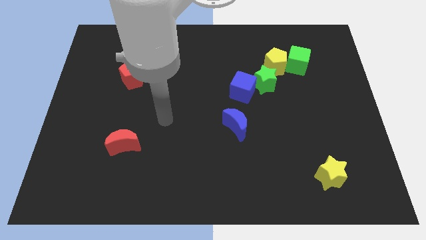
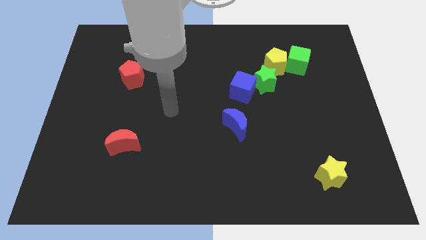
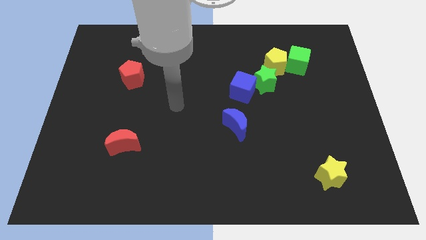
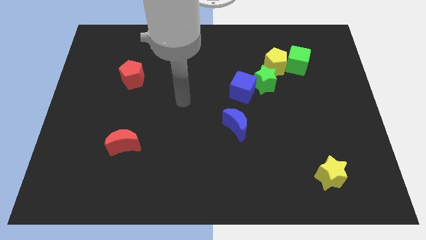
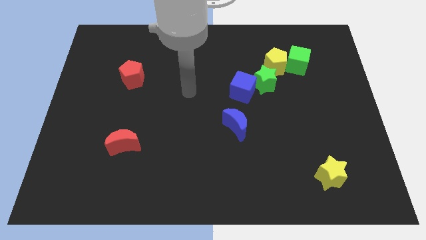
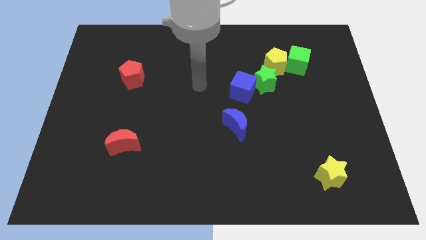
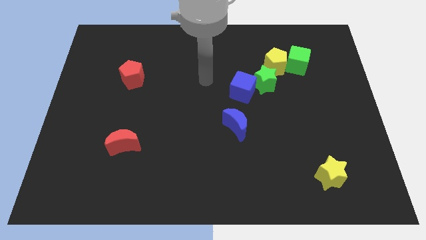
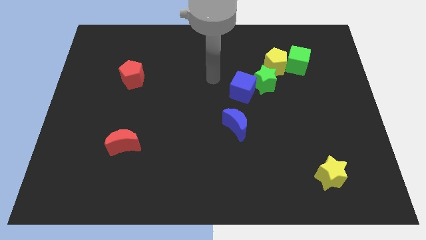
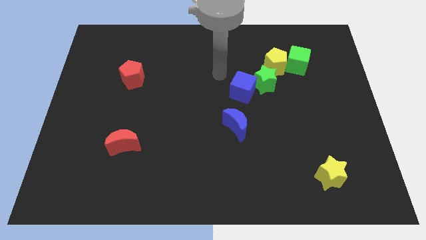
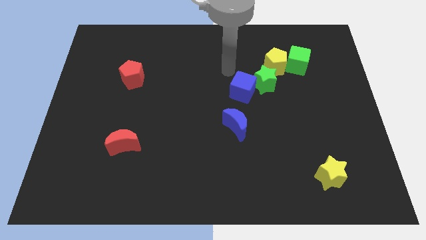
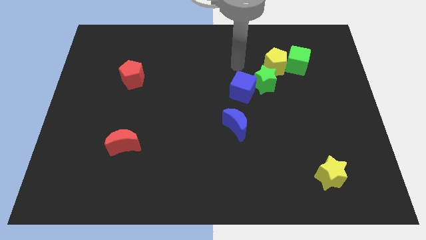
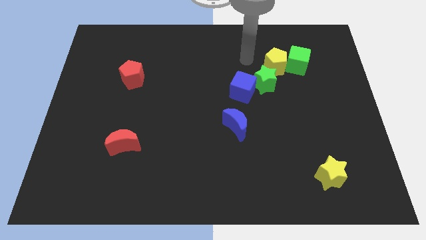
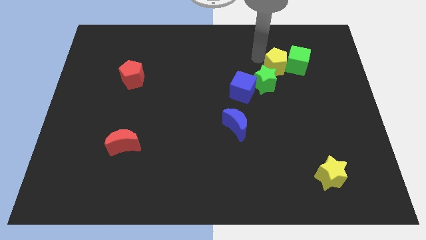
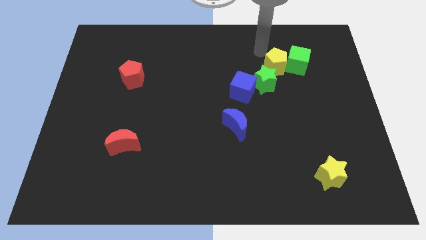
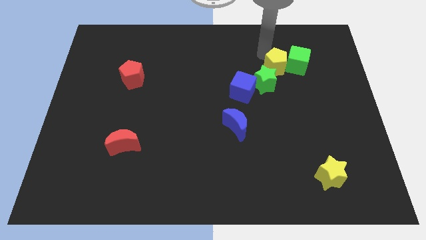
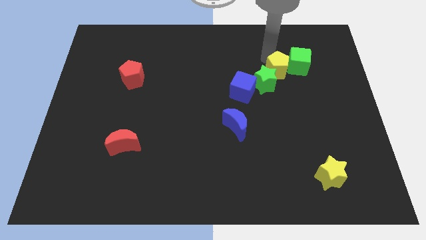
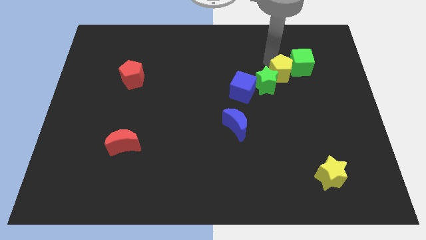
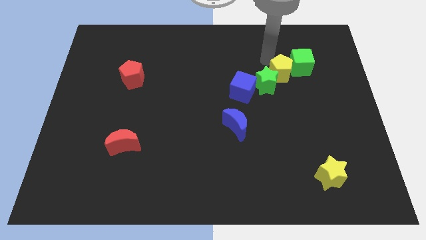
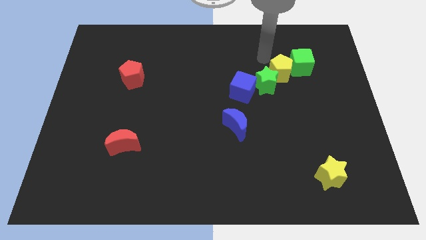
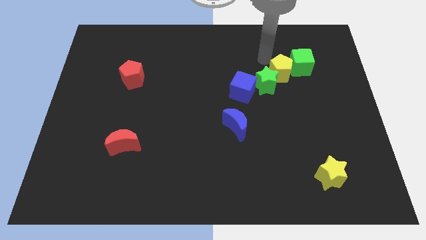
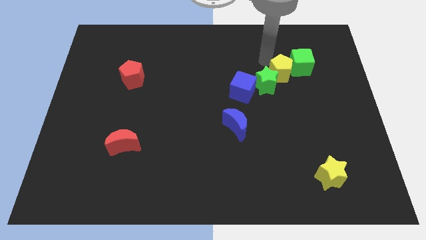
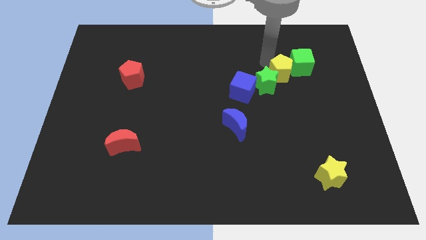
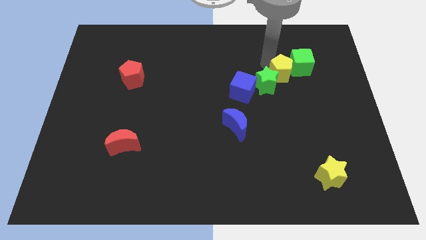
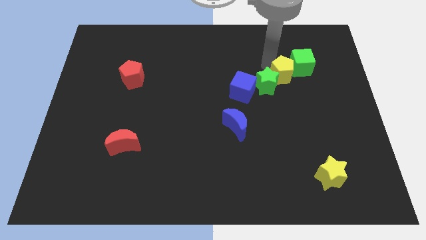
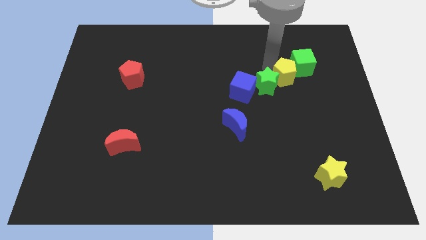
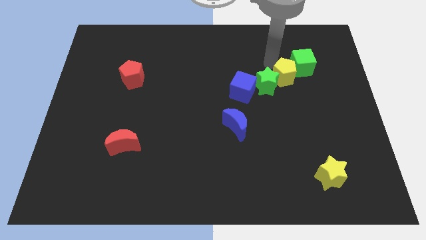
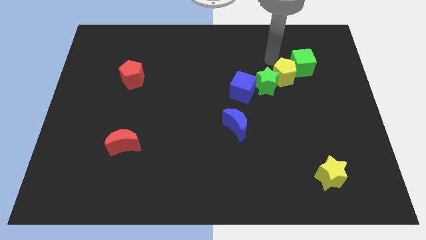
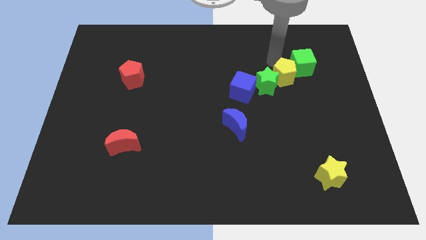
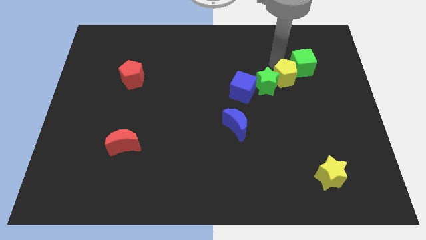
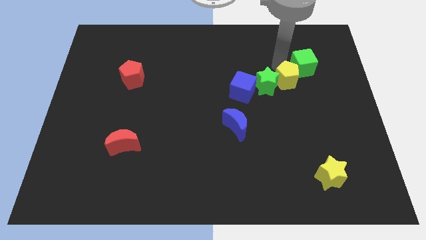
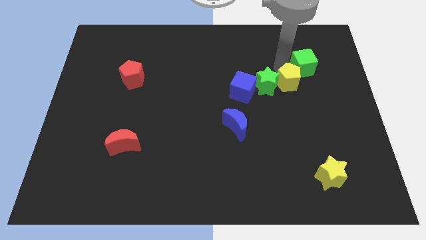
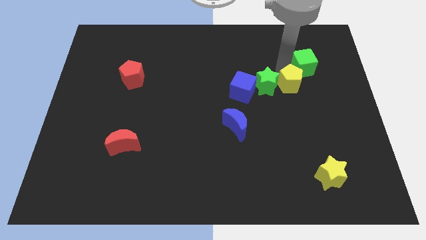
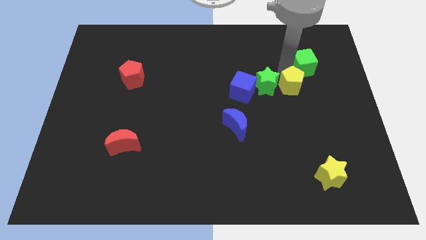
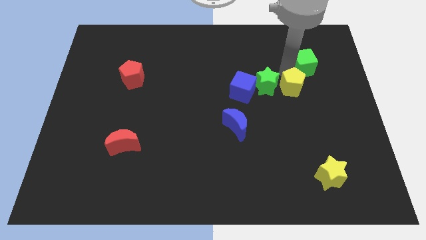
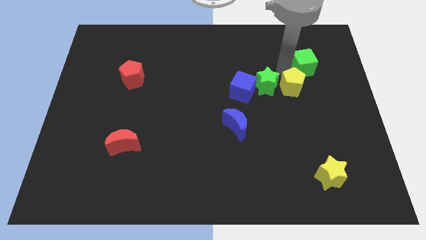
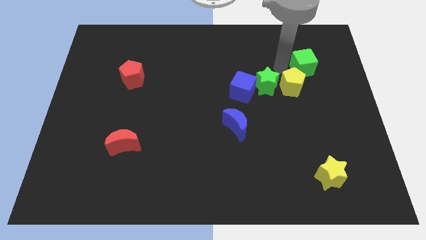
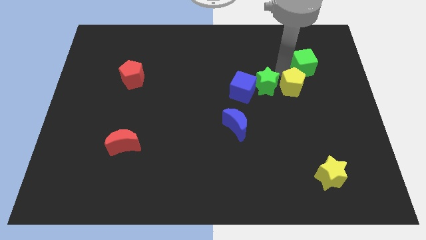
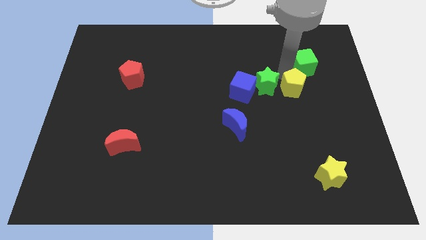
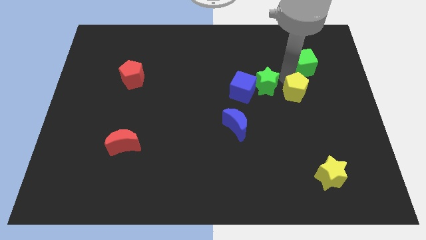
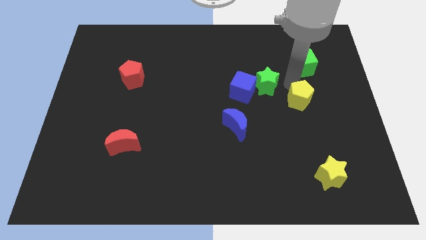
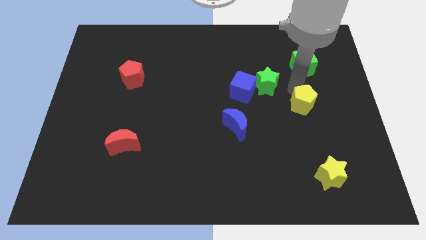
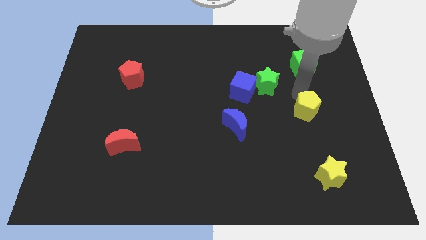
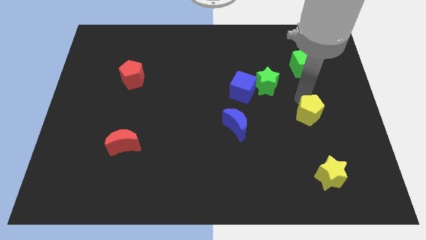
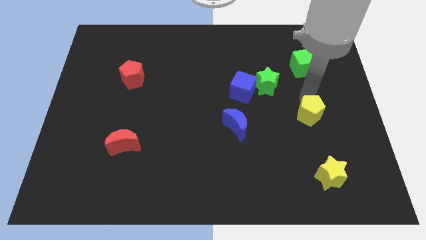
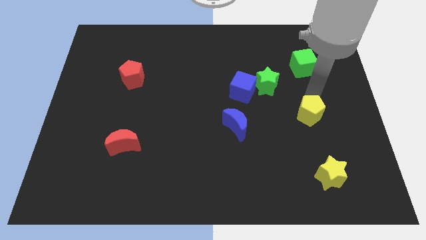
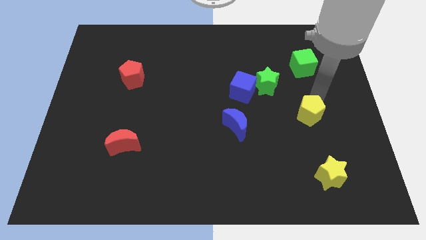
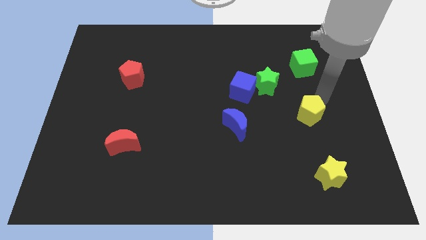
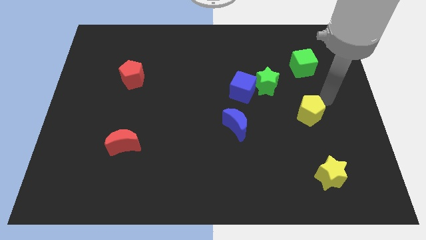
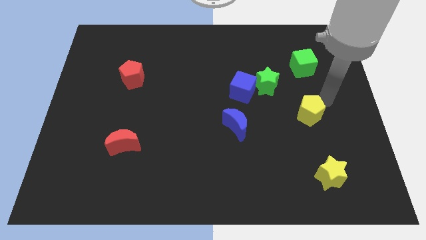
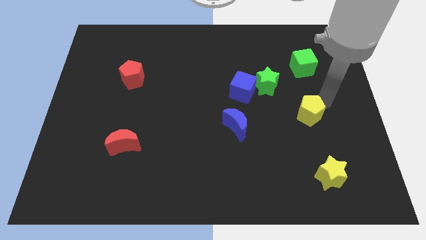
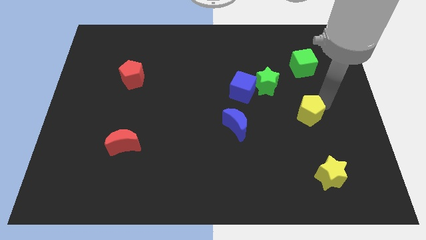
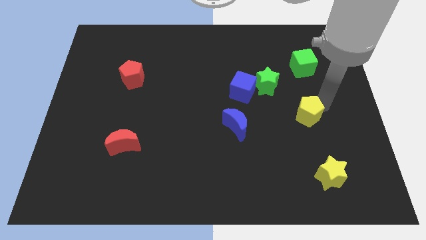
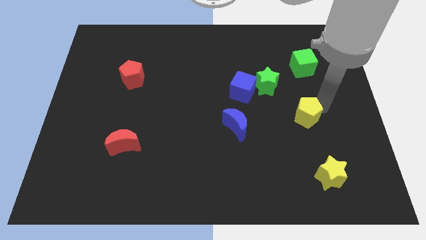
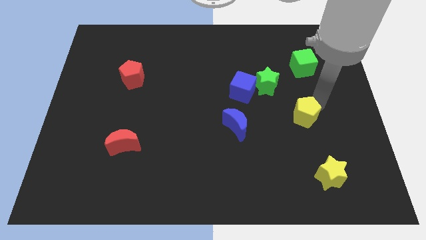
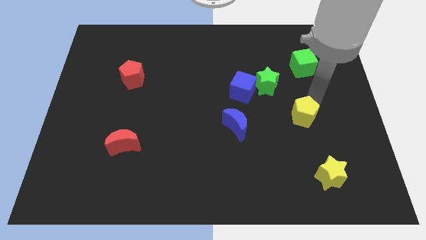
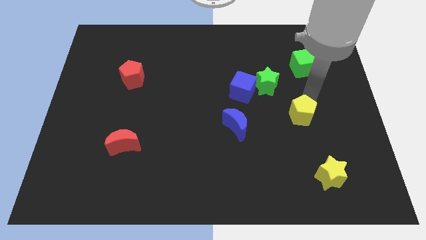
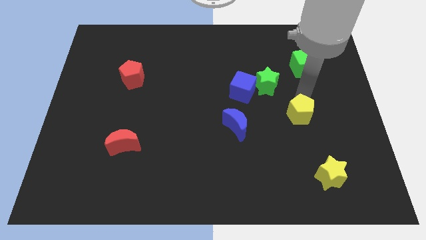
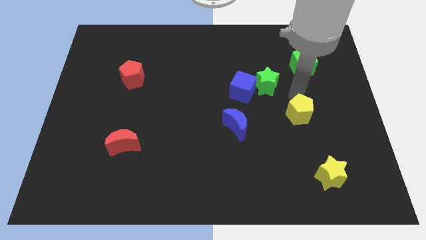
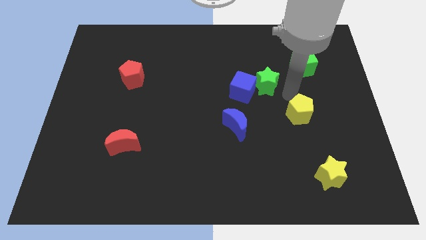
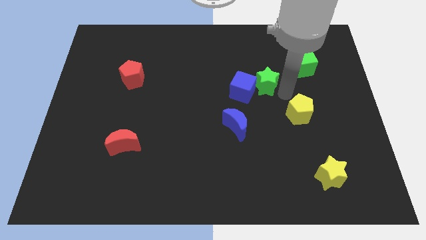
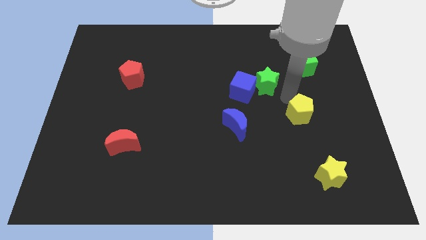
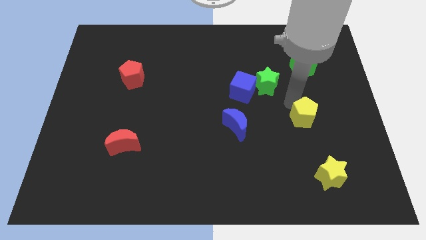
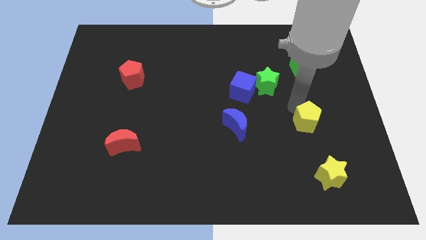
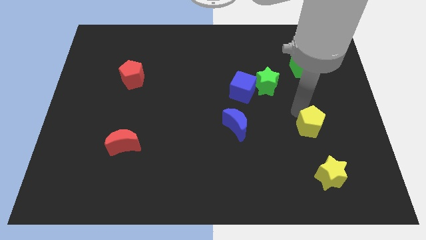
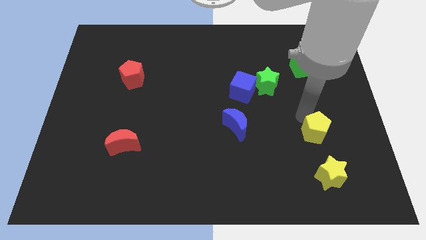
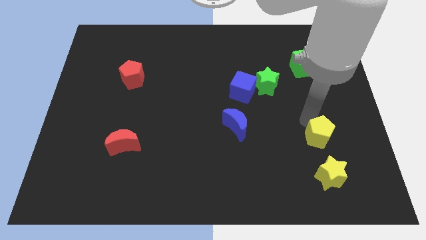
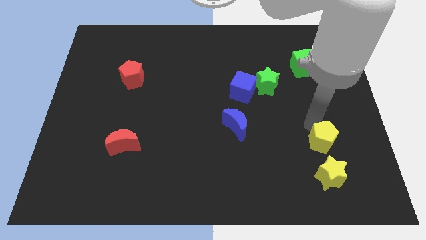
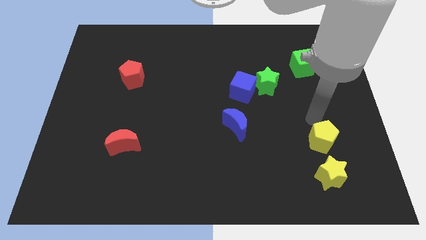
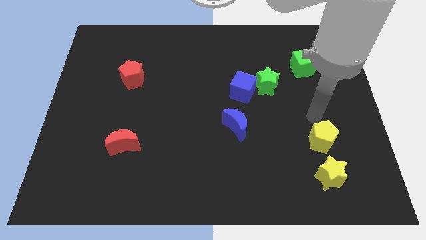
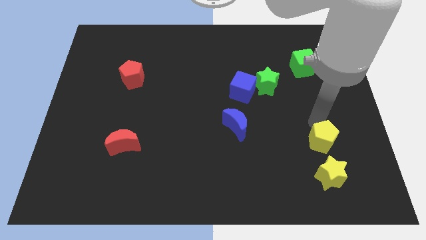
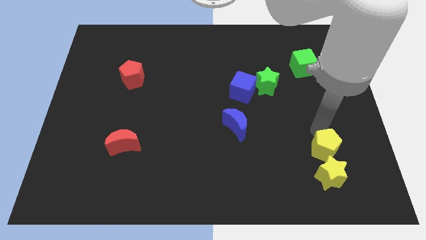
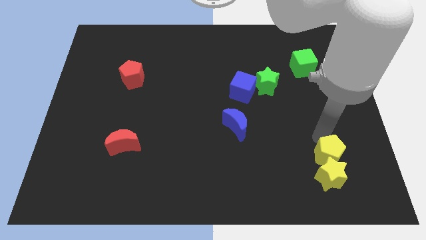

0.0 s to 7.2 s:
push the yellow pentagon towards the yellow star
